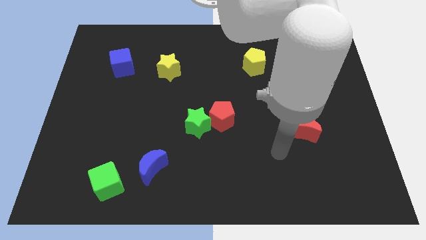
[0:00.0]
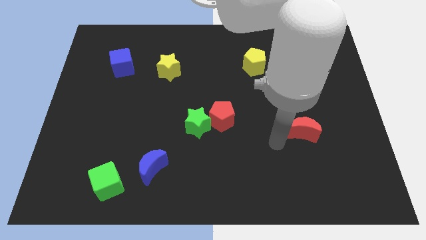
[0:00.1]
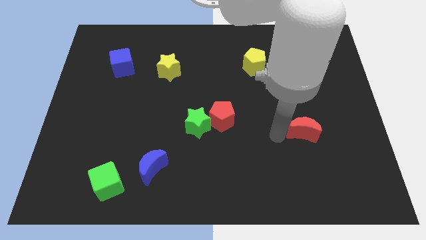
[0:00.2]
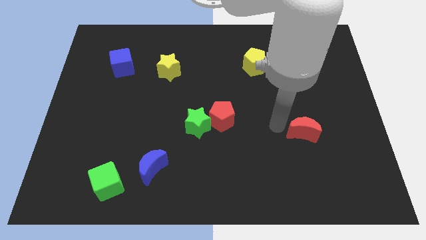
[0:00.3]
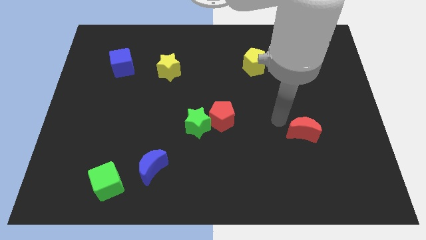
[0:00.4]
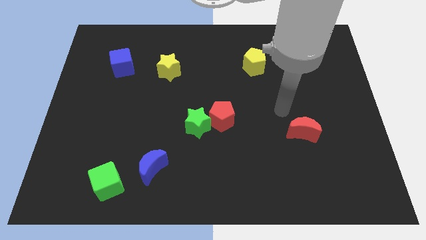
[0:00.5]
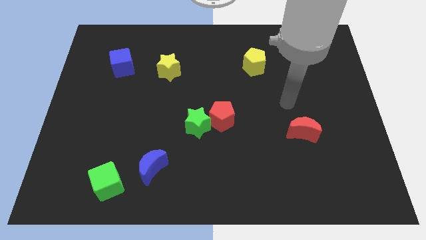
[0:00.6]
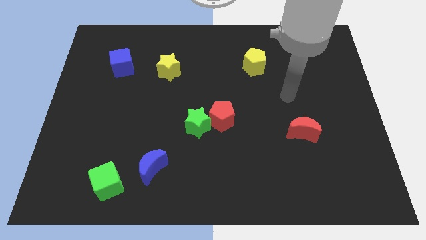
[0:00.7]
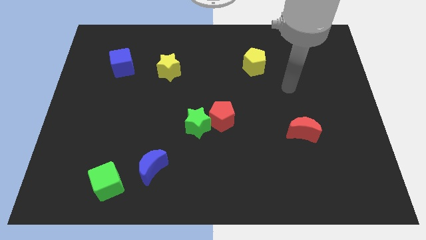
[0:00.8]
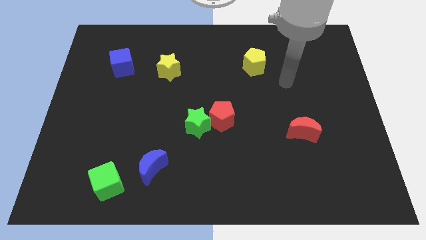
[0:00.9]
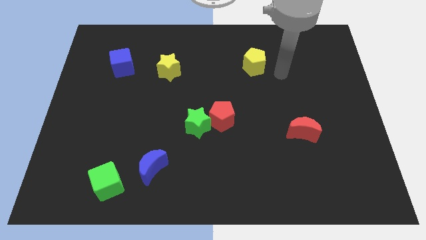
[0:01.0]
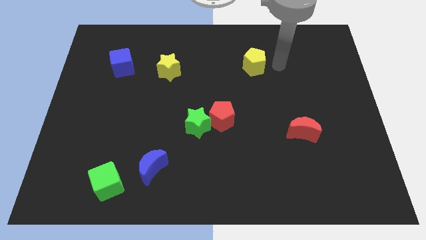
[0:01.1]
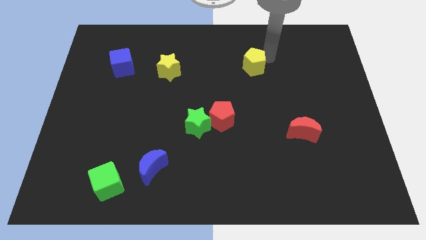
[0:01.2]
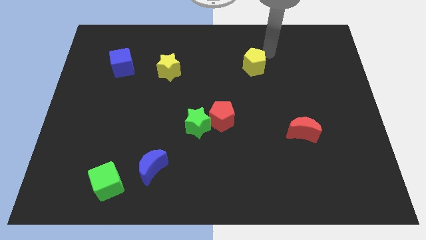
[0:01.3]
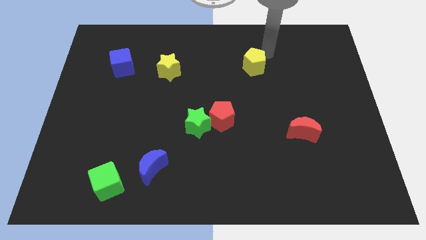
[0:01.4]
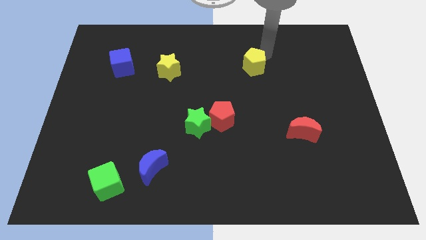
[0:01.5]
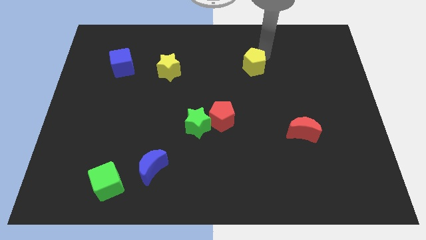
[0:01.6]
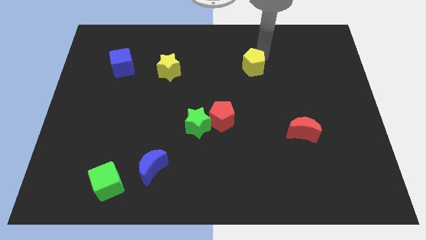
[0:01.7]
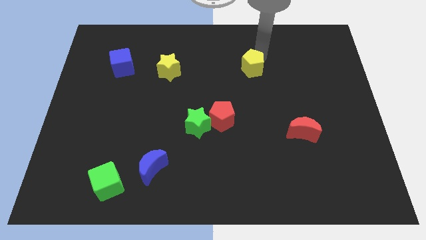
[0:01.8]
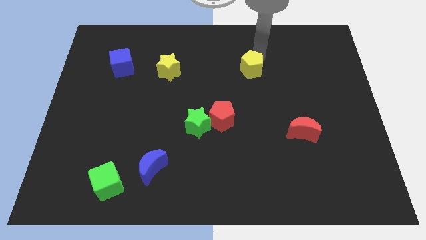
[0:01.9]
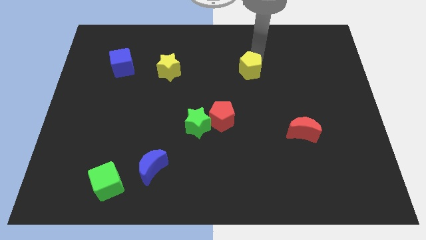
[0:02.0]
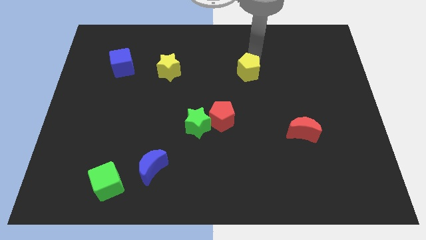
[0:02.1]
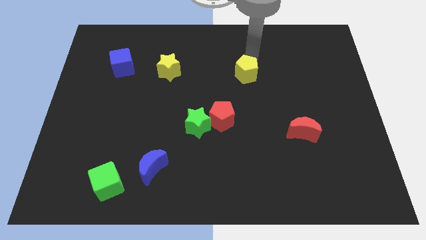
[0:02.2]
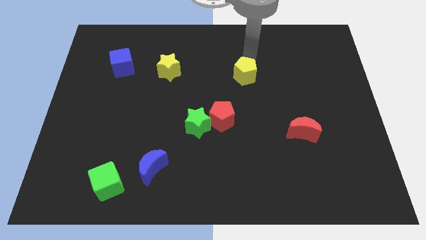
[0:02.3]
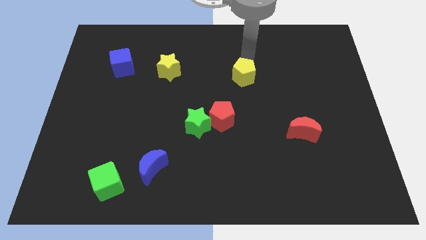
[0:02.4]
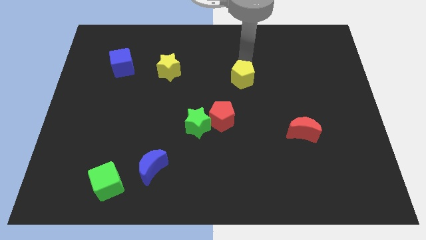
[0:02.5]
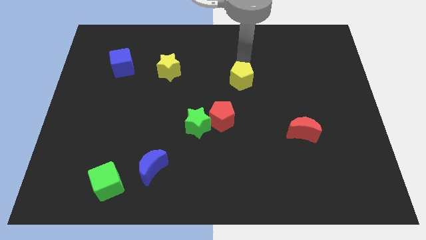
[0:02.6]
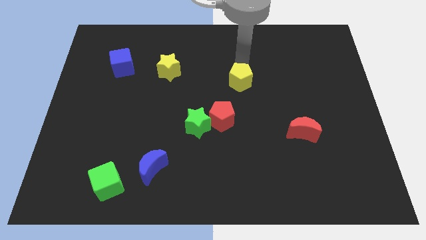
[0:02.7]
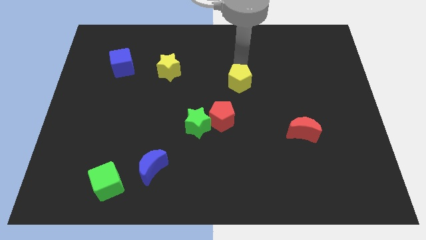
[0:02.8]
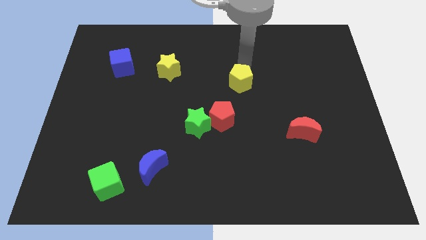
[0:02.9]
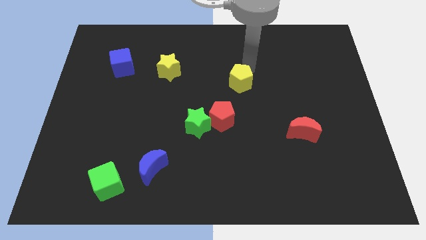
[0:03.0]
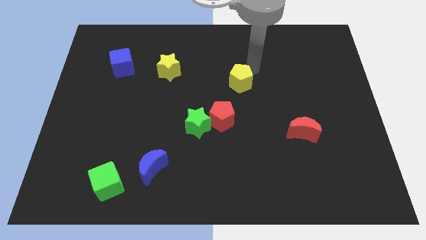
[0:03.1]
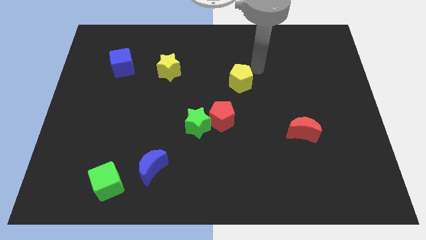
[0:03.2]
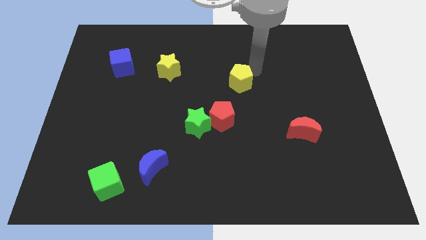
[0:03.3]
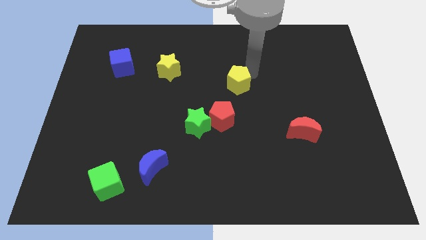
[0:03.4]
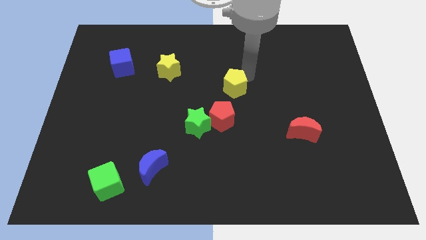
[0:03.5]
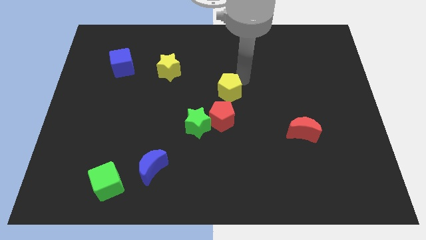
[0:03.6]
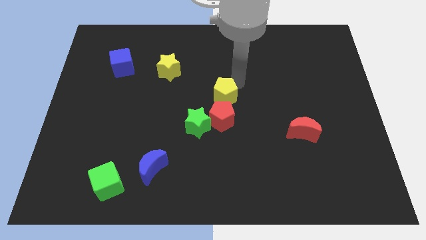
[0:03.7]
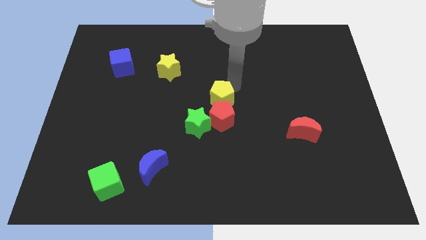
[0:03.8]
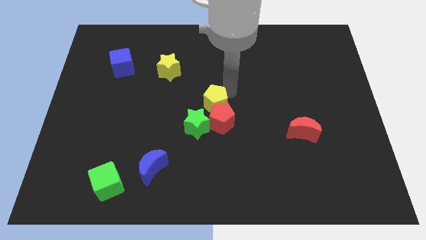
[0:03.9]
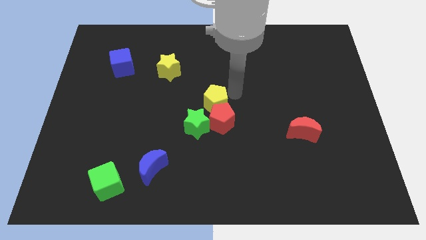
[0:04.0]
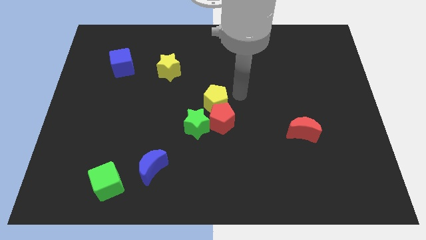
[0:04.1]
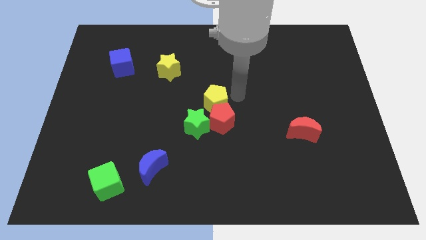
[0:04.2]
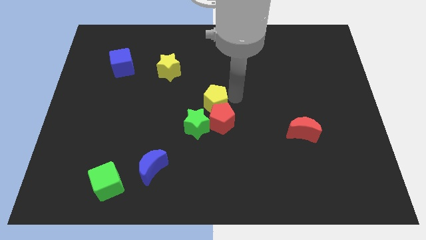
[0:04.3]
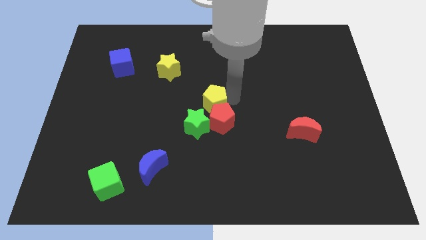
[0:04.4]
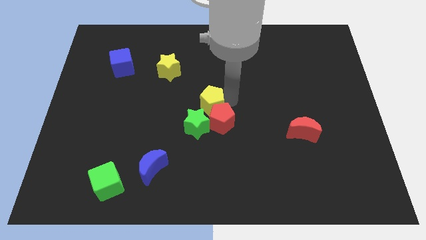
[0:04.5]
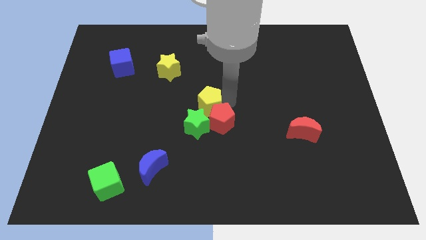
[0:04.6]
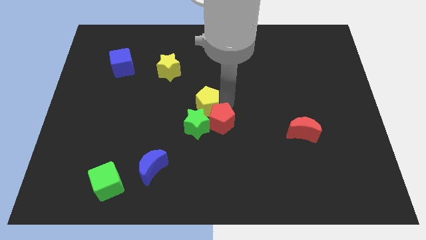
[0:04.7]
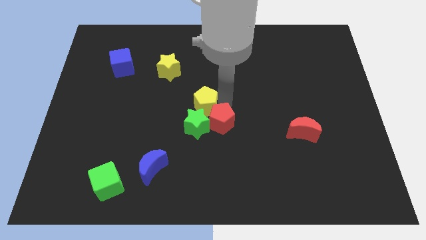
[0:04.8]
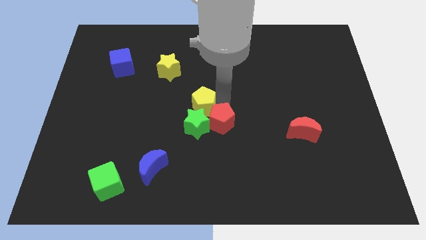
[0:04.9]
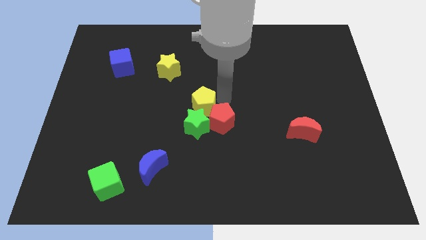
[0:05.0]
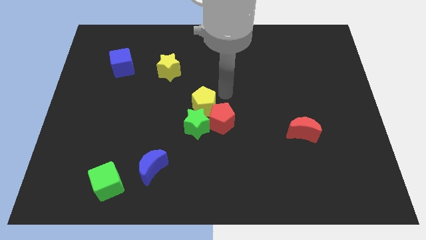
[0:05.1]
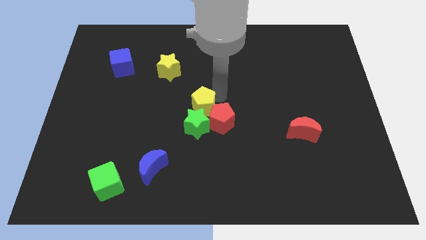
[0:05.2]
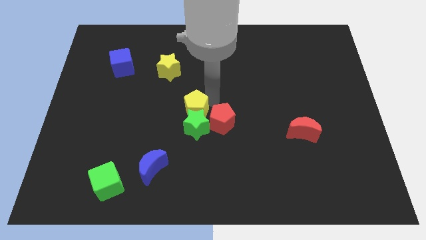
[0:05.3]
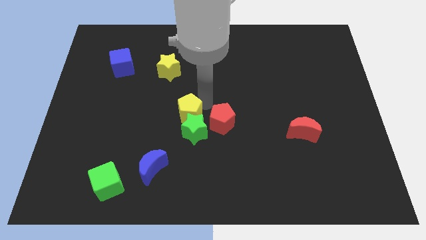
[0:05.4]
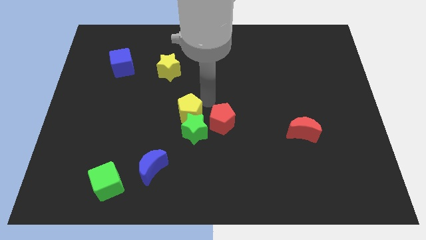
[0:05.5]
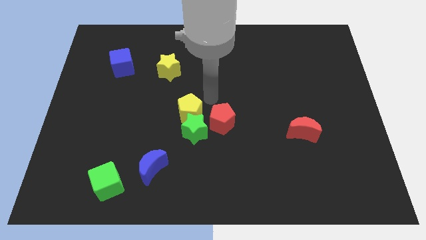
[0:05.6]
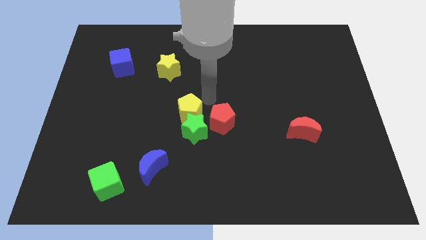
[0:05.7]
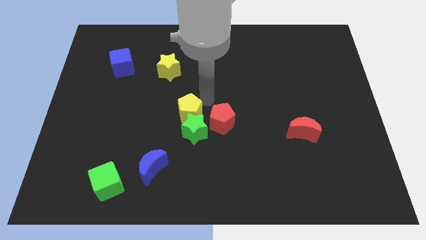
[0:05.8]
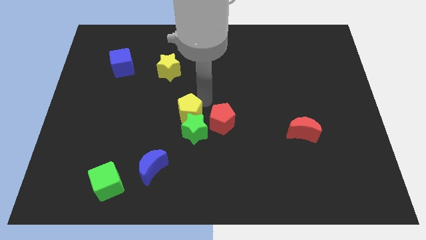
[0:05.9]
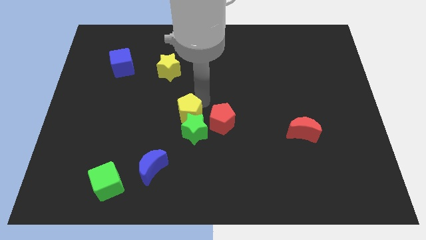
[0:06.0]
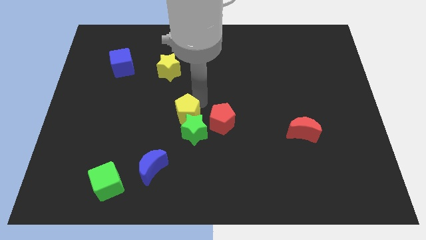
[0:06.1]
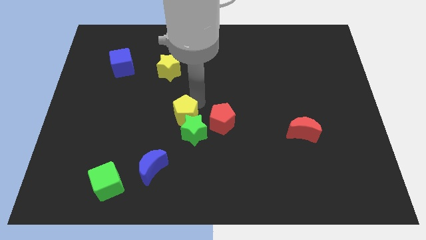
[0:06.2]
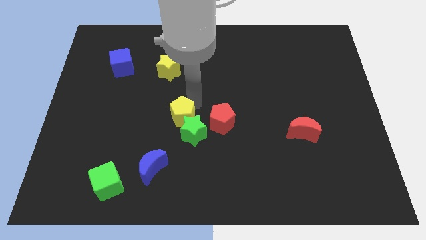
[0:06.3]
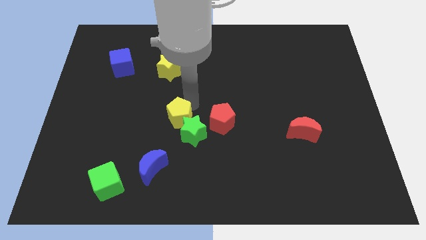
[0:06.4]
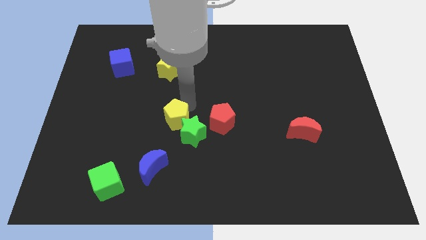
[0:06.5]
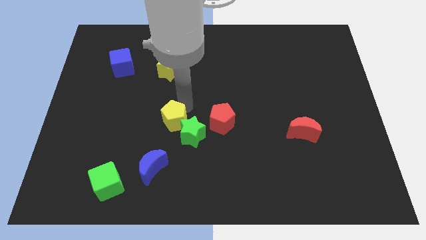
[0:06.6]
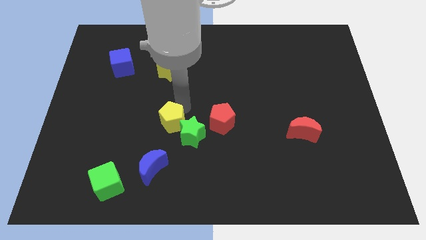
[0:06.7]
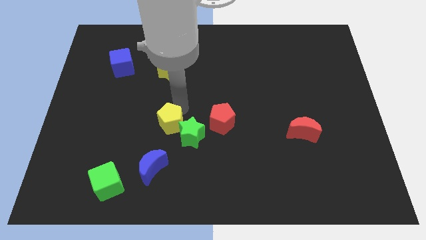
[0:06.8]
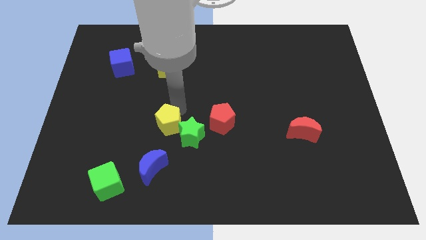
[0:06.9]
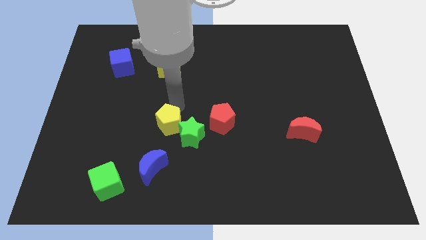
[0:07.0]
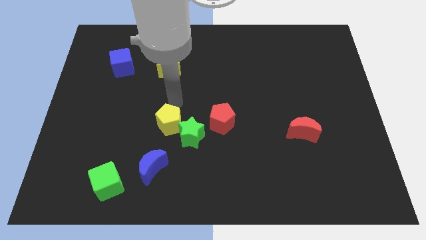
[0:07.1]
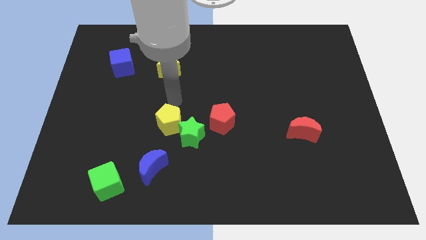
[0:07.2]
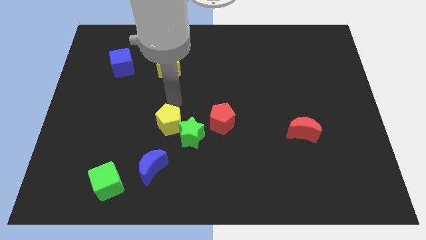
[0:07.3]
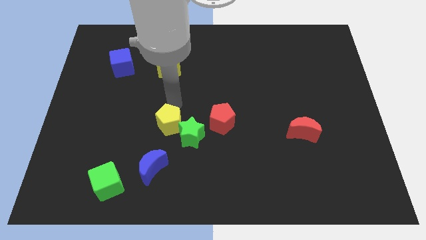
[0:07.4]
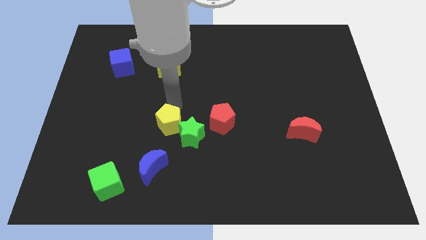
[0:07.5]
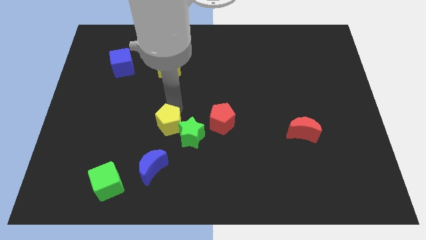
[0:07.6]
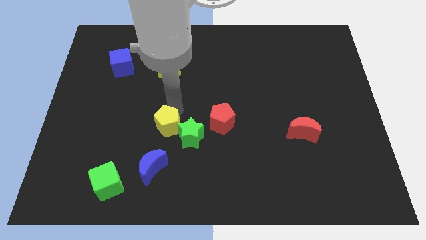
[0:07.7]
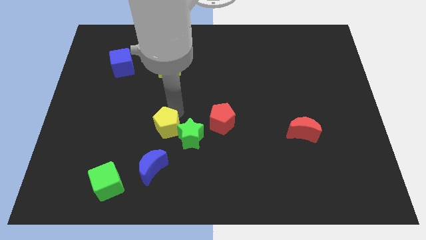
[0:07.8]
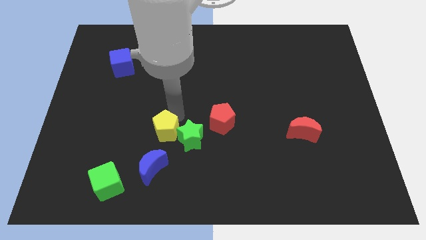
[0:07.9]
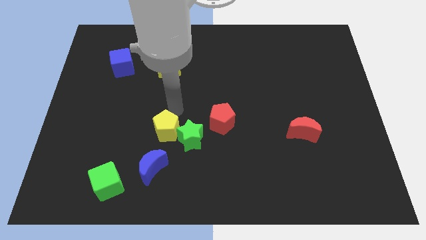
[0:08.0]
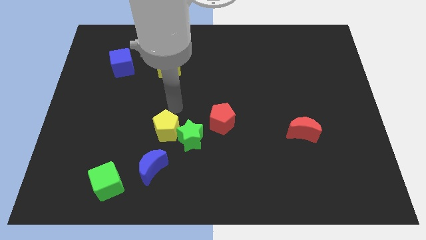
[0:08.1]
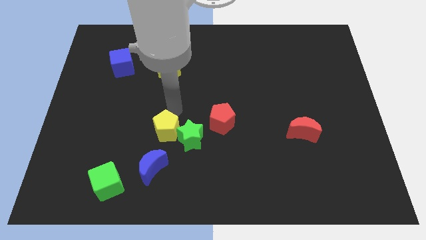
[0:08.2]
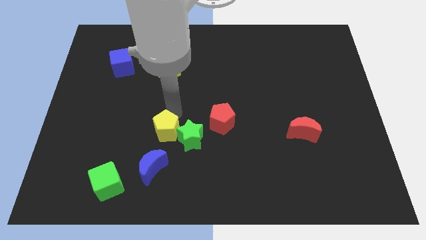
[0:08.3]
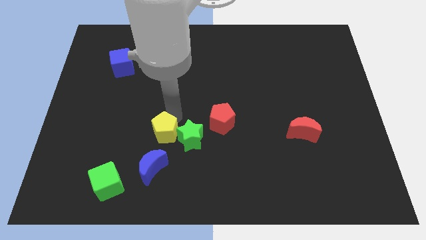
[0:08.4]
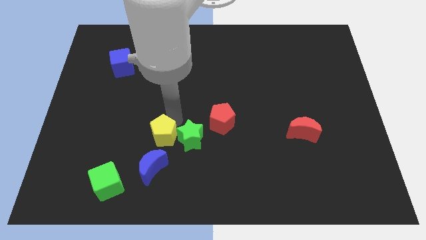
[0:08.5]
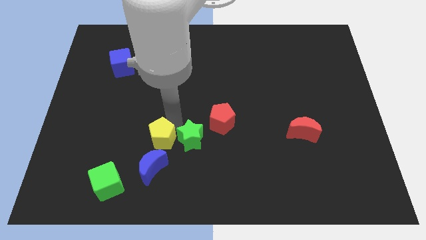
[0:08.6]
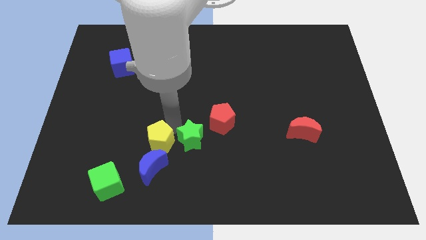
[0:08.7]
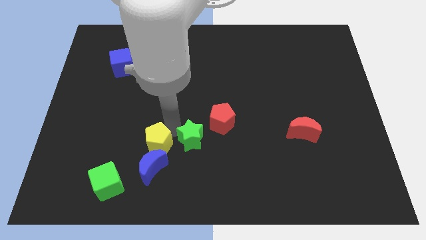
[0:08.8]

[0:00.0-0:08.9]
slide the yellow pentagon to the blue moon
